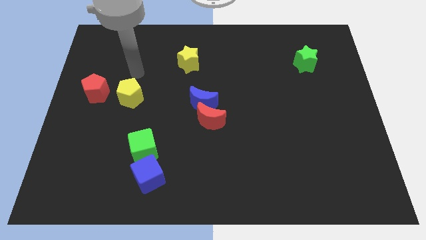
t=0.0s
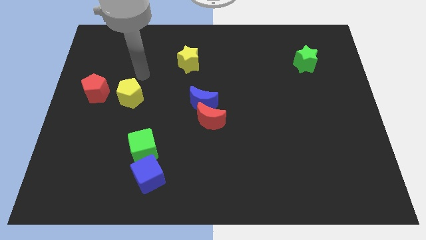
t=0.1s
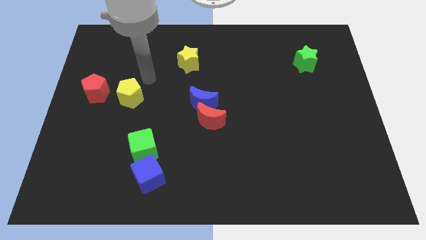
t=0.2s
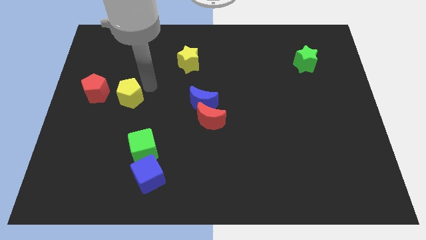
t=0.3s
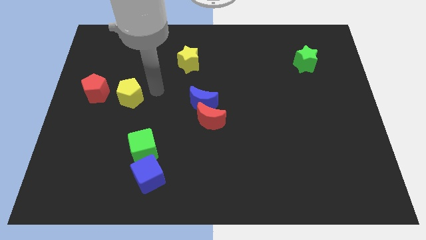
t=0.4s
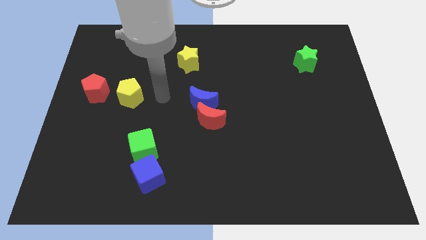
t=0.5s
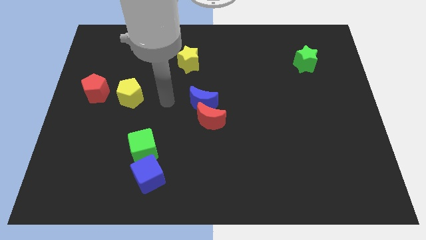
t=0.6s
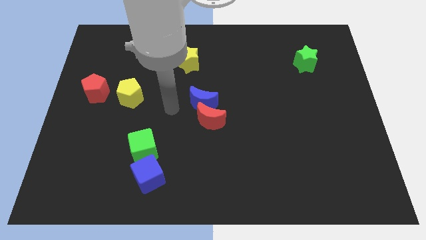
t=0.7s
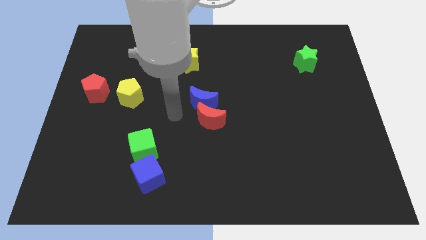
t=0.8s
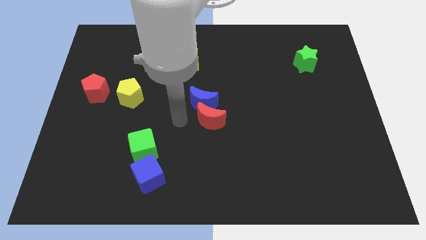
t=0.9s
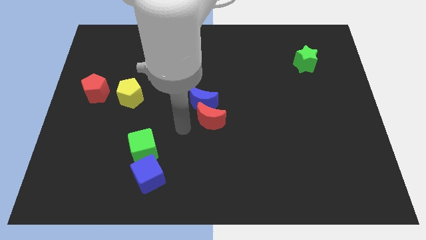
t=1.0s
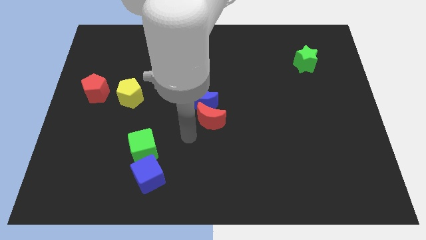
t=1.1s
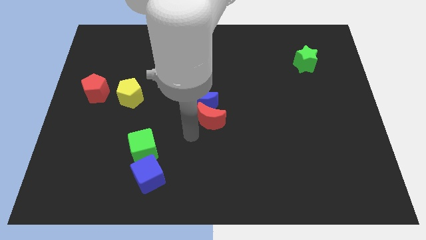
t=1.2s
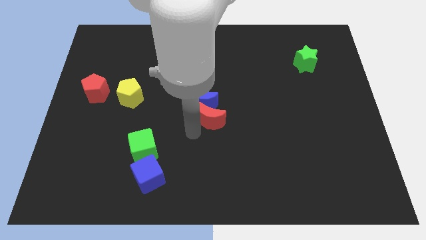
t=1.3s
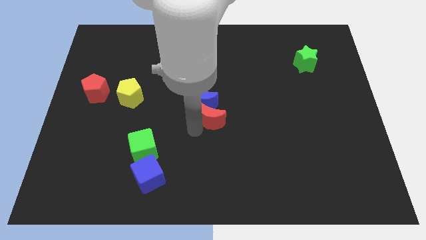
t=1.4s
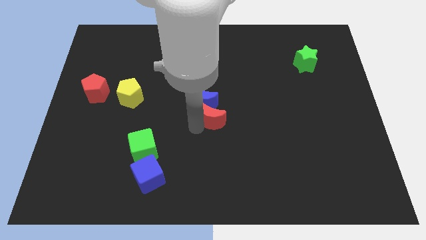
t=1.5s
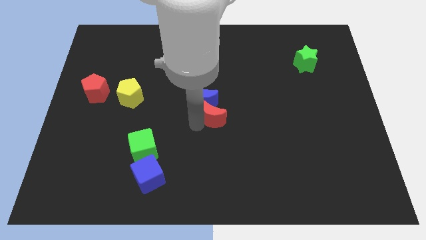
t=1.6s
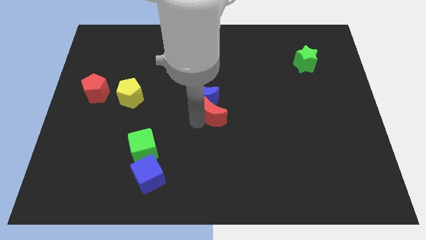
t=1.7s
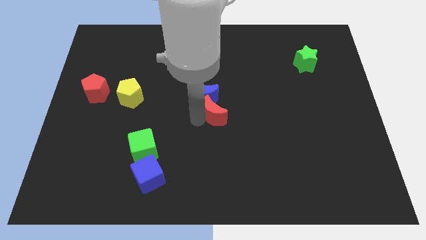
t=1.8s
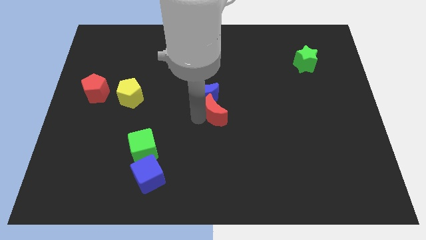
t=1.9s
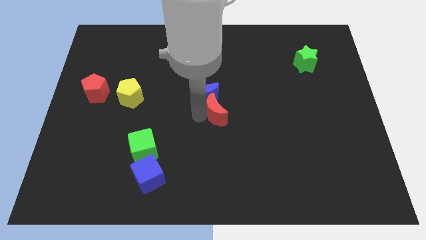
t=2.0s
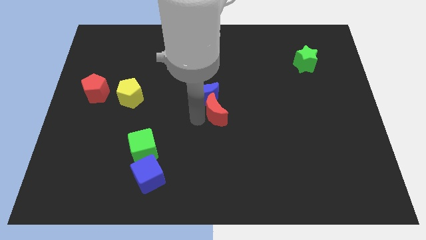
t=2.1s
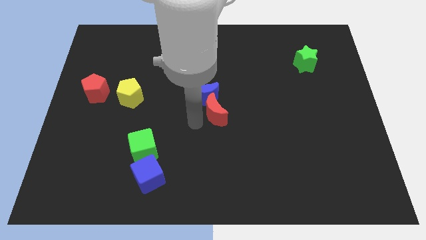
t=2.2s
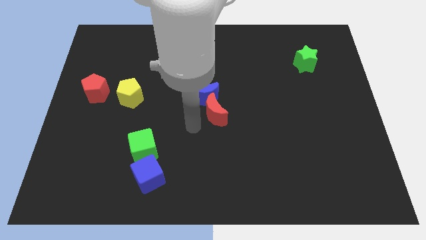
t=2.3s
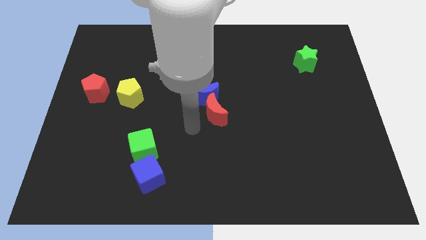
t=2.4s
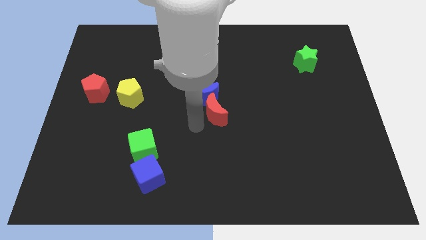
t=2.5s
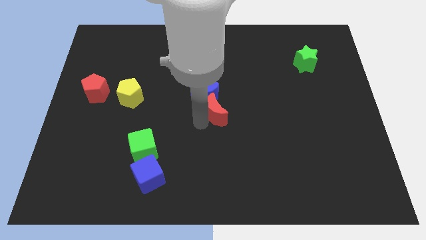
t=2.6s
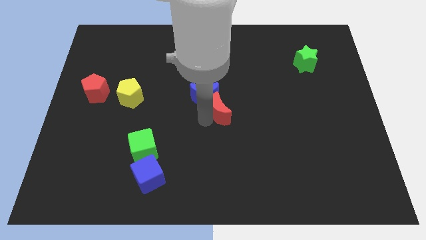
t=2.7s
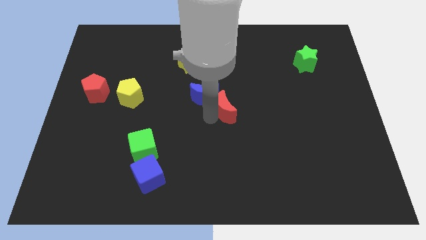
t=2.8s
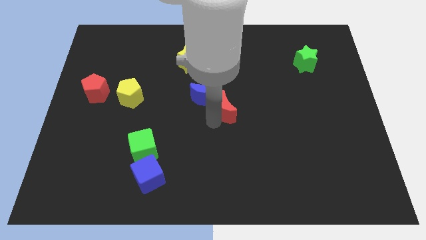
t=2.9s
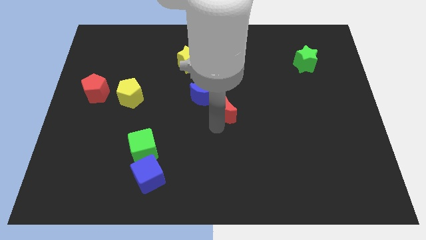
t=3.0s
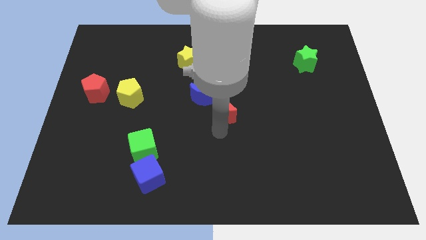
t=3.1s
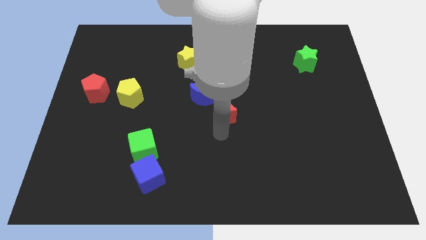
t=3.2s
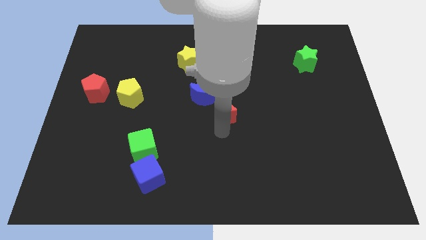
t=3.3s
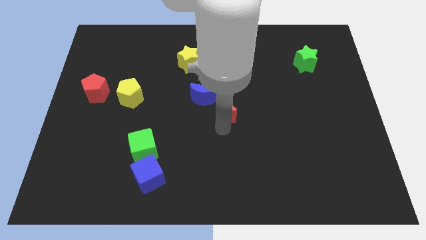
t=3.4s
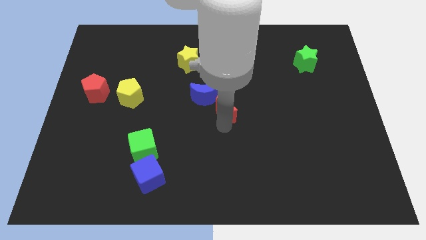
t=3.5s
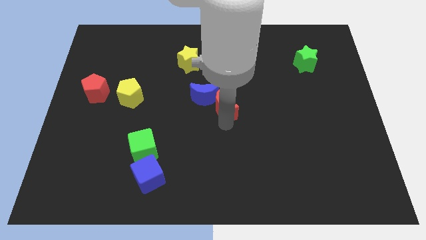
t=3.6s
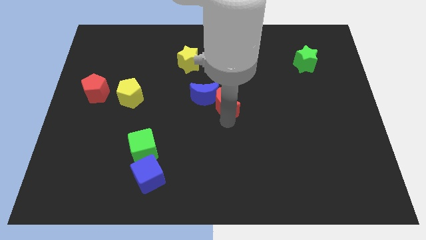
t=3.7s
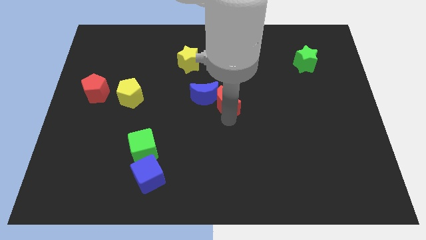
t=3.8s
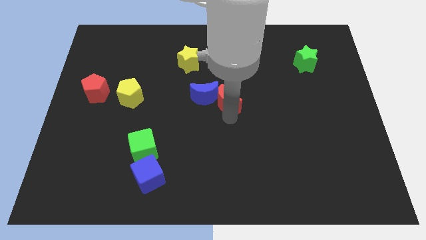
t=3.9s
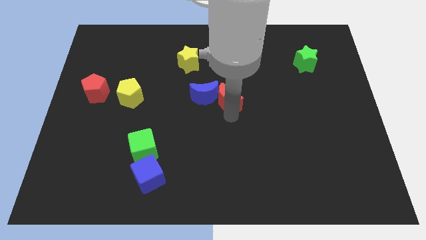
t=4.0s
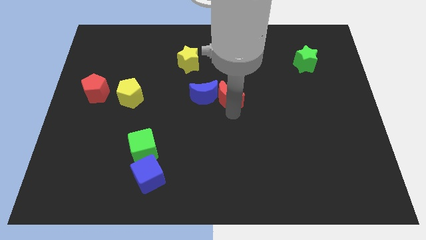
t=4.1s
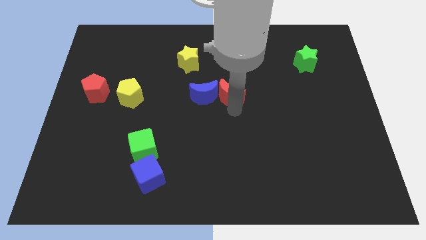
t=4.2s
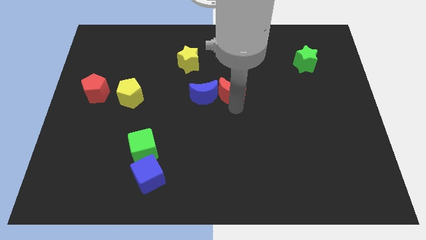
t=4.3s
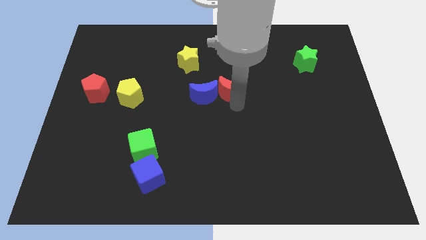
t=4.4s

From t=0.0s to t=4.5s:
move the red moon upwards slightly

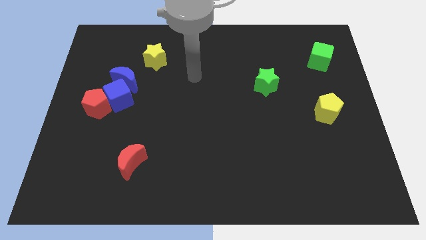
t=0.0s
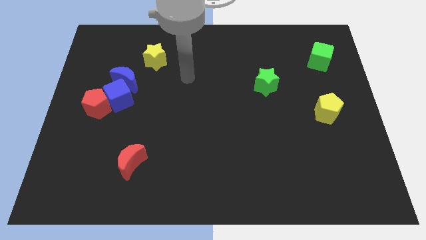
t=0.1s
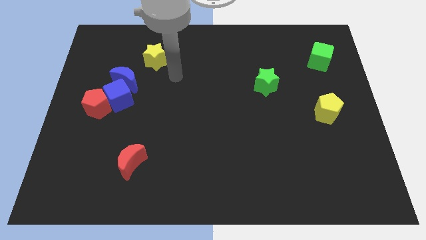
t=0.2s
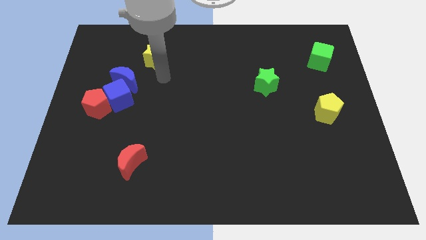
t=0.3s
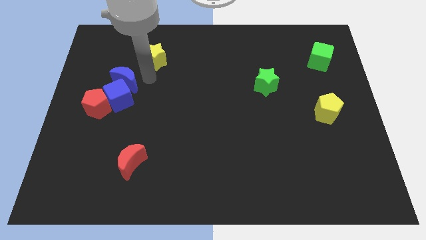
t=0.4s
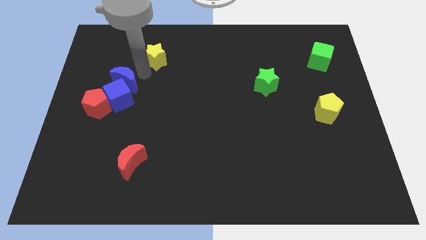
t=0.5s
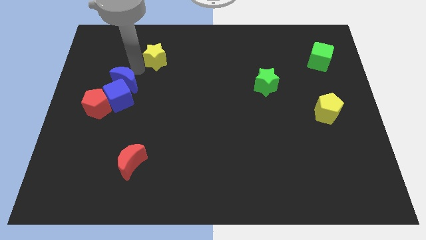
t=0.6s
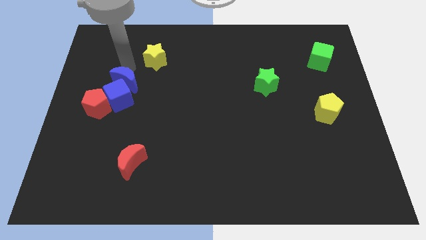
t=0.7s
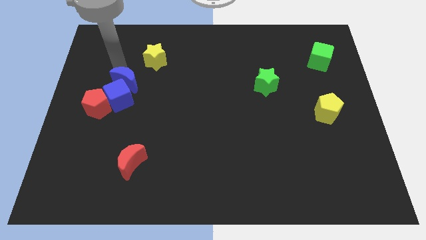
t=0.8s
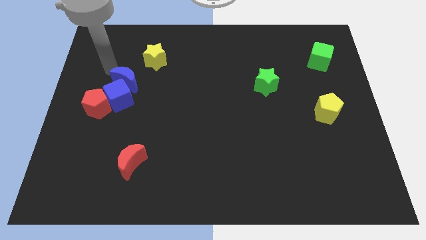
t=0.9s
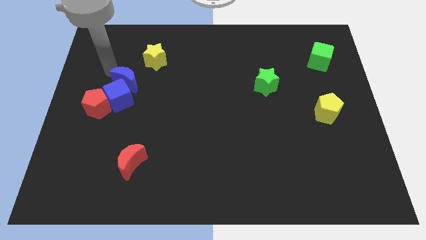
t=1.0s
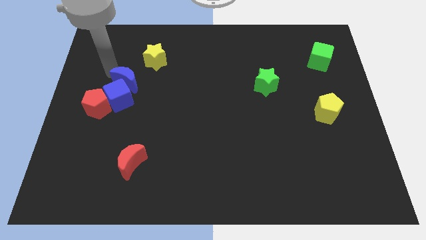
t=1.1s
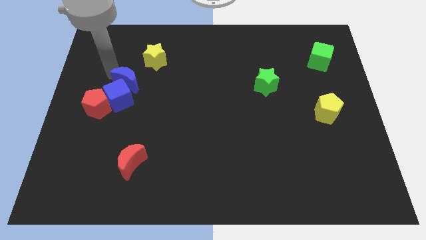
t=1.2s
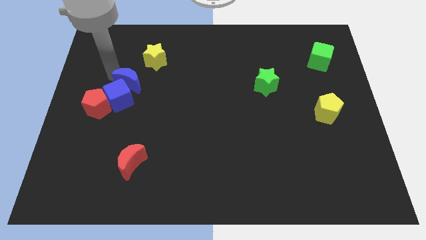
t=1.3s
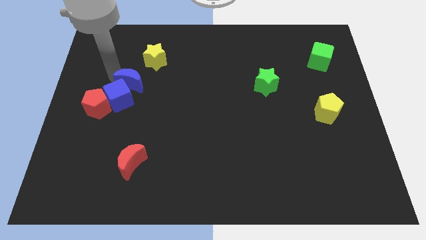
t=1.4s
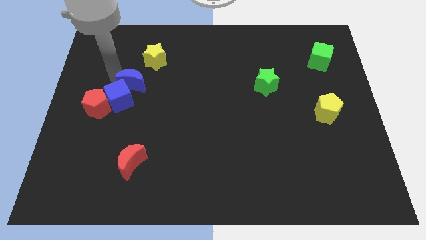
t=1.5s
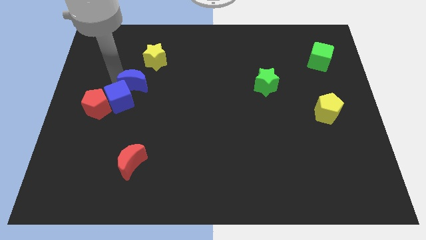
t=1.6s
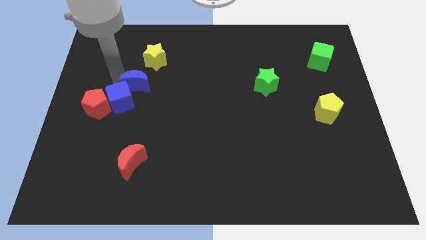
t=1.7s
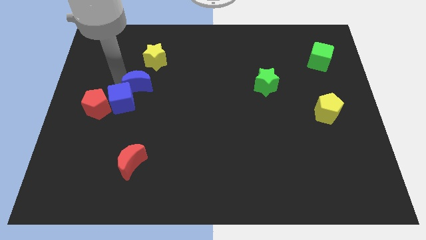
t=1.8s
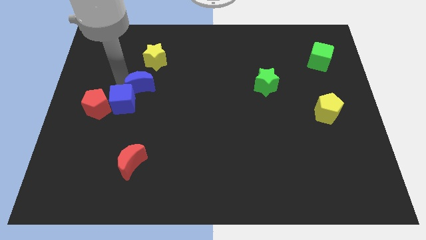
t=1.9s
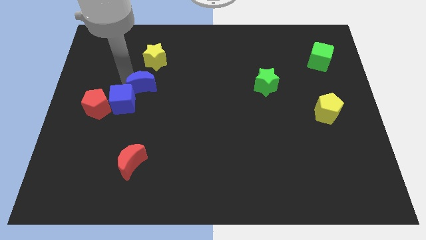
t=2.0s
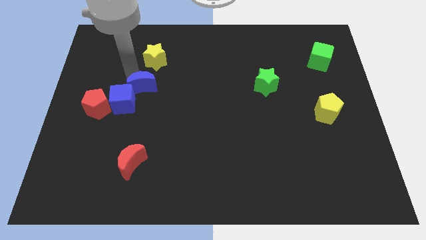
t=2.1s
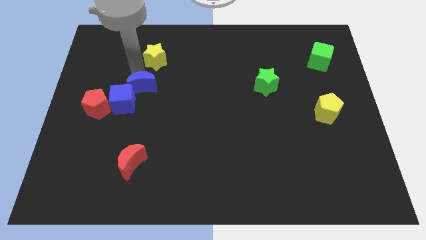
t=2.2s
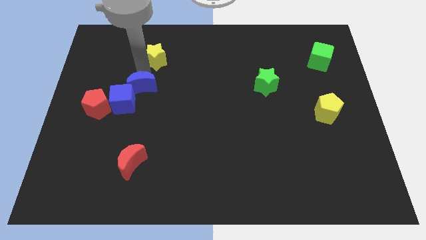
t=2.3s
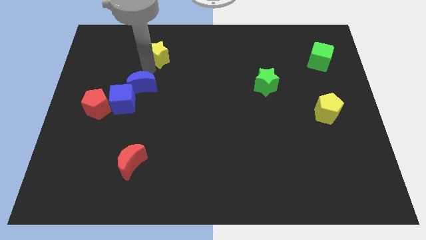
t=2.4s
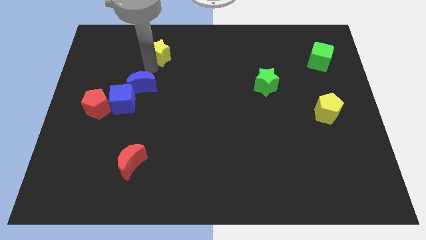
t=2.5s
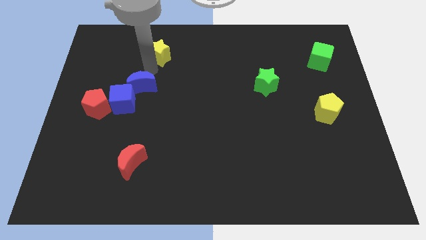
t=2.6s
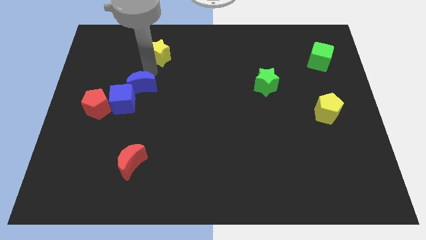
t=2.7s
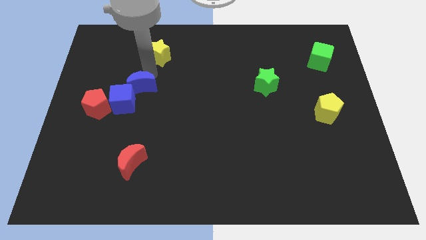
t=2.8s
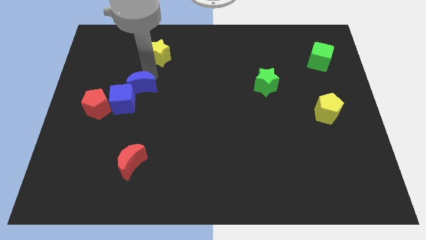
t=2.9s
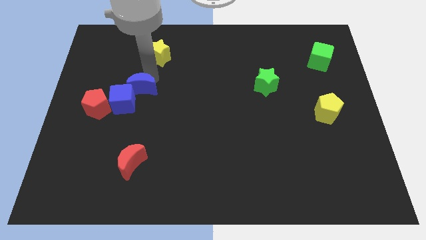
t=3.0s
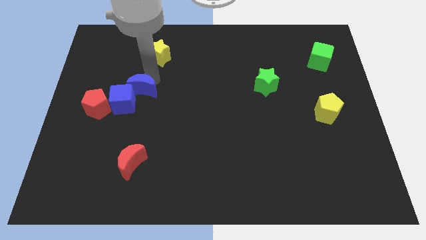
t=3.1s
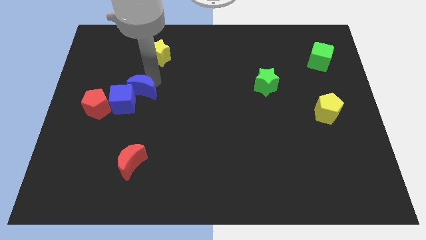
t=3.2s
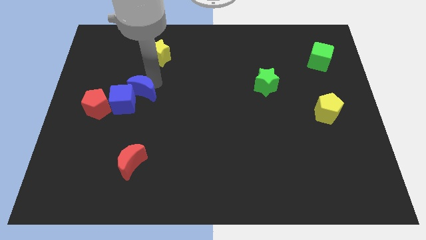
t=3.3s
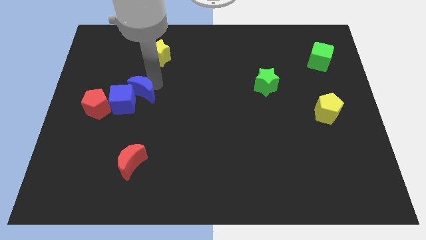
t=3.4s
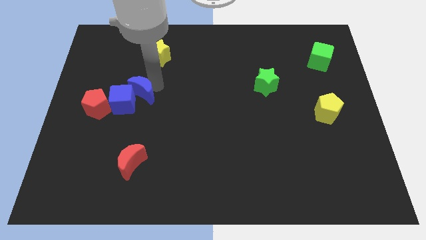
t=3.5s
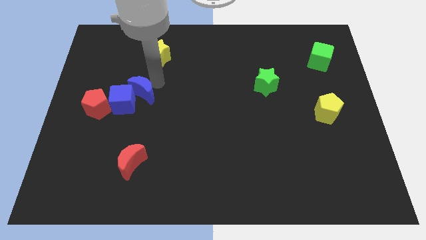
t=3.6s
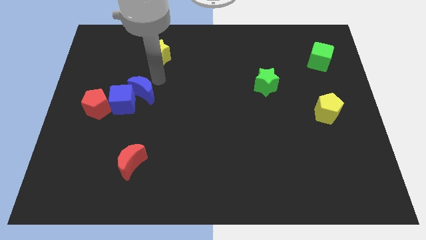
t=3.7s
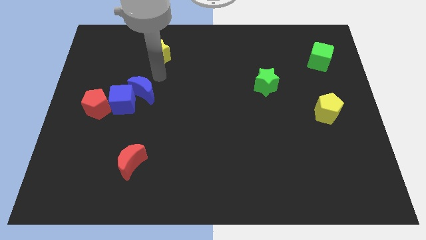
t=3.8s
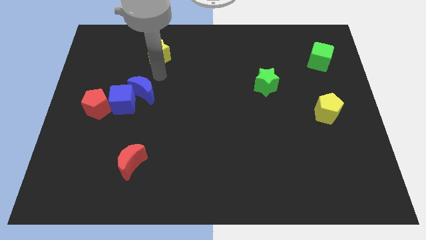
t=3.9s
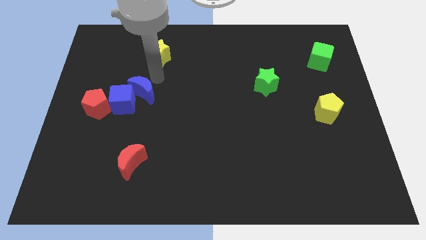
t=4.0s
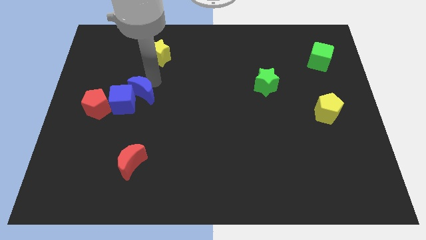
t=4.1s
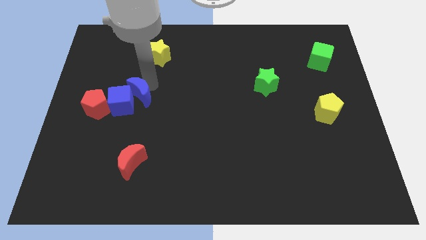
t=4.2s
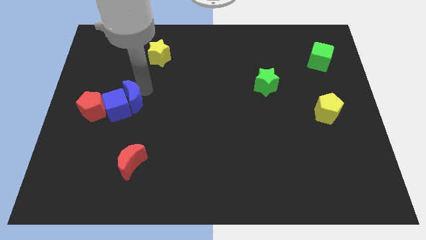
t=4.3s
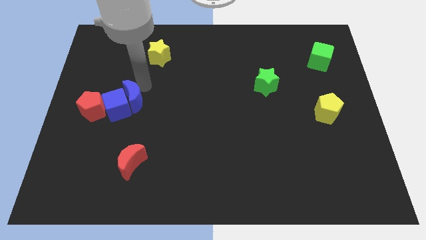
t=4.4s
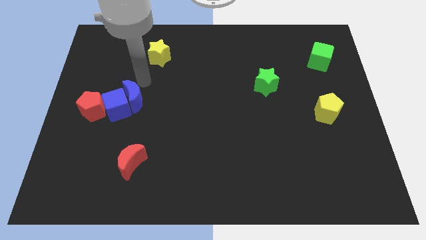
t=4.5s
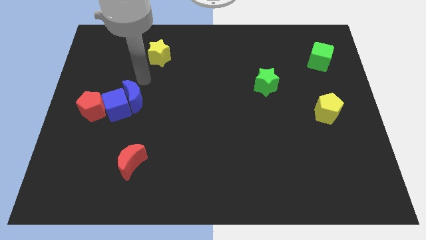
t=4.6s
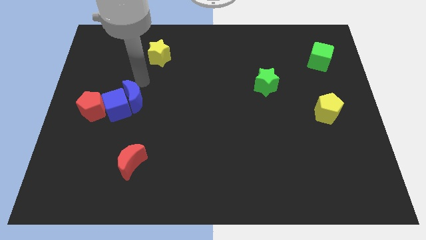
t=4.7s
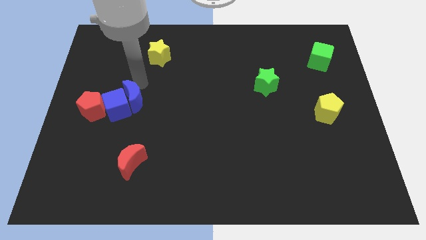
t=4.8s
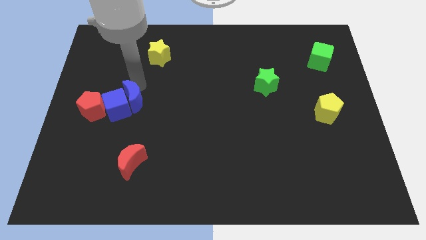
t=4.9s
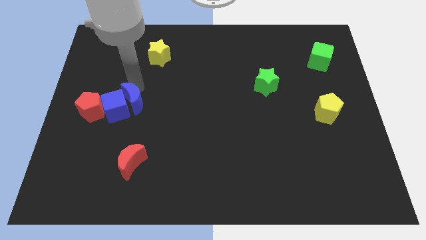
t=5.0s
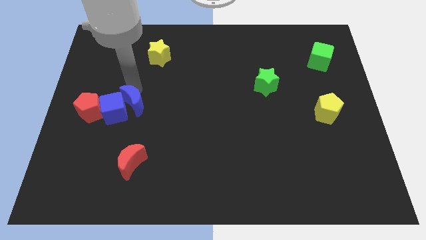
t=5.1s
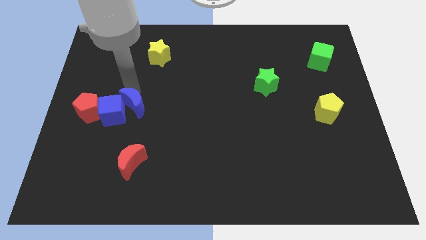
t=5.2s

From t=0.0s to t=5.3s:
move the blue moon a little bit down
